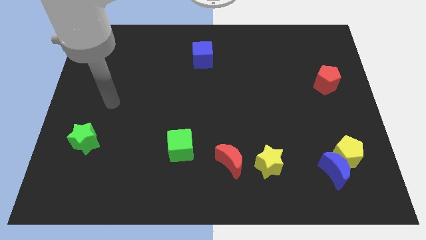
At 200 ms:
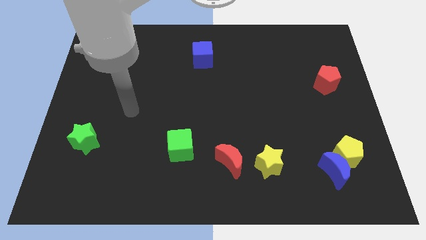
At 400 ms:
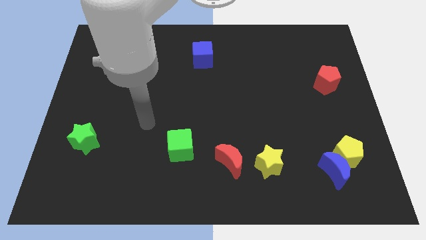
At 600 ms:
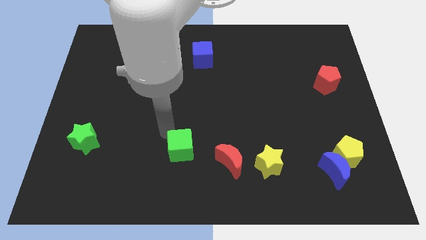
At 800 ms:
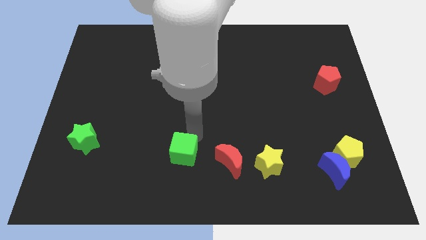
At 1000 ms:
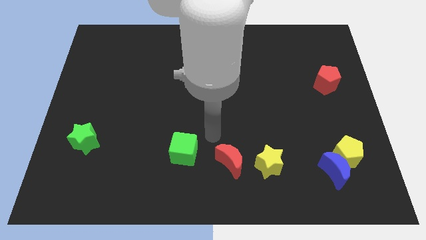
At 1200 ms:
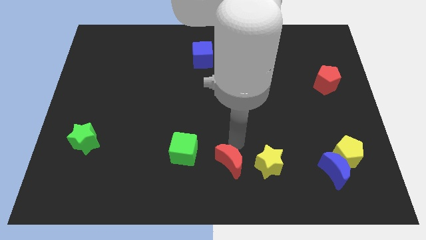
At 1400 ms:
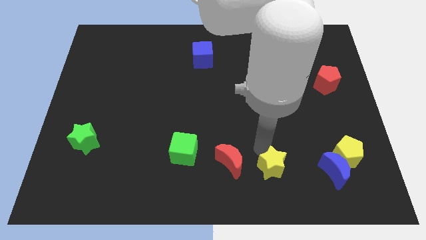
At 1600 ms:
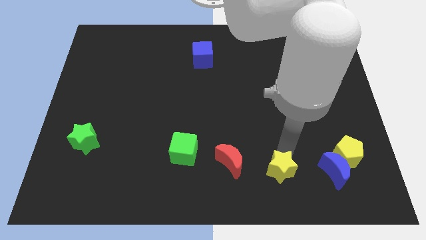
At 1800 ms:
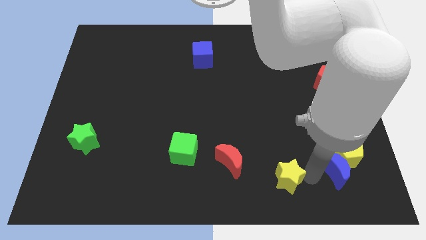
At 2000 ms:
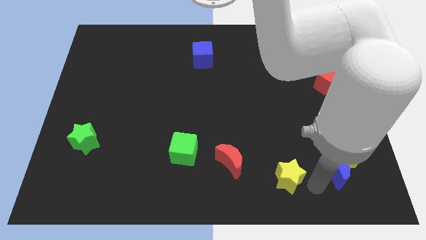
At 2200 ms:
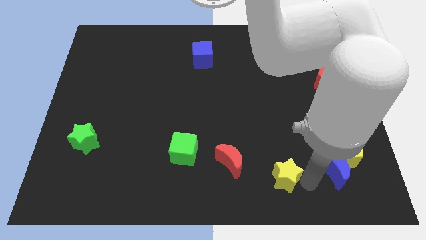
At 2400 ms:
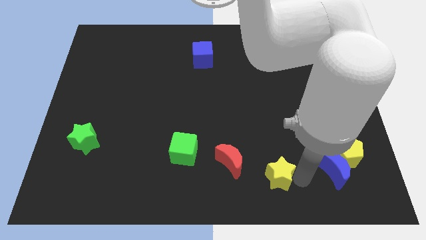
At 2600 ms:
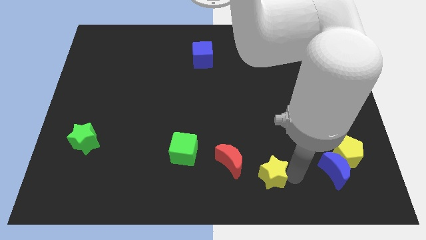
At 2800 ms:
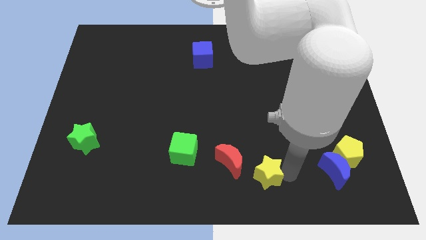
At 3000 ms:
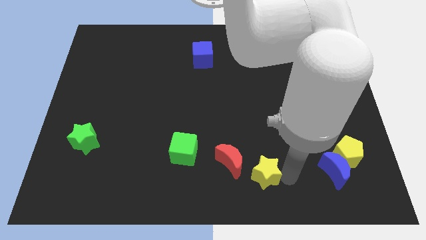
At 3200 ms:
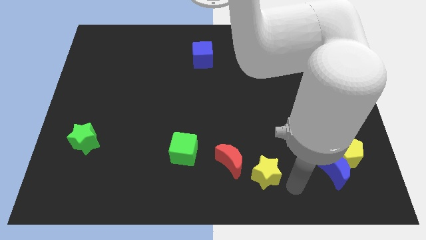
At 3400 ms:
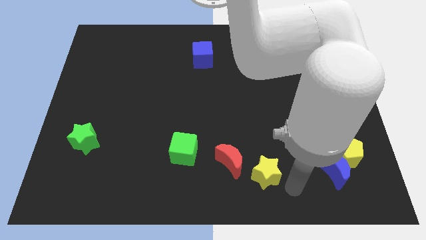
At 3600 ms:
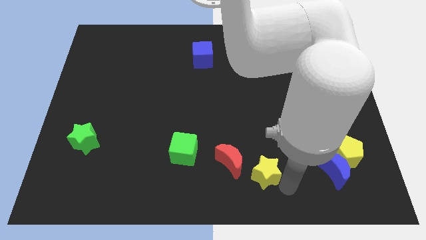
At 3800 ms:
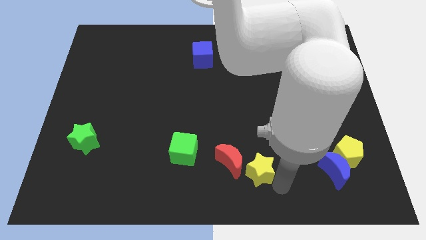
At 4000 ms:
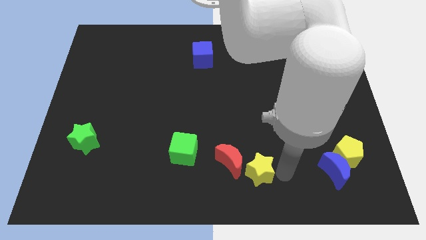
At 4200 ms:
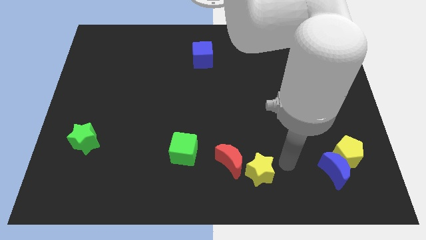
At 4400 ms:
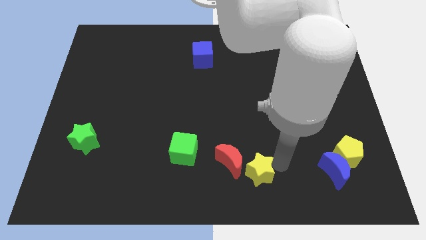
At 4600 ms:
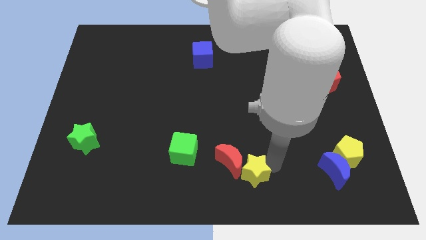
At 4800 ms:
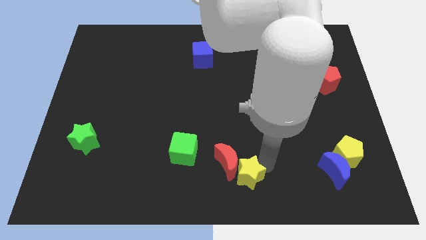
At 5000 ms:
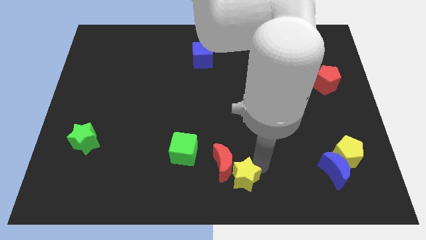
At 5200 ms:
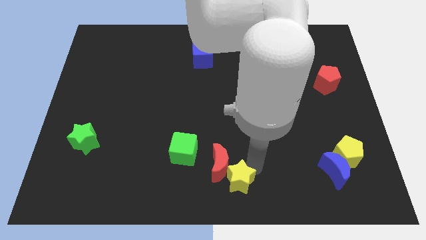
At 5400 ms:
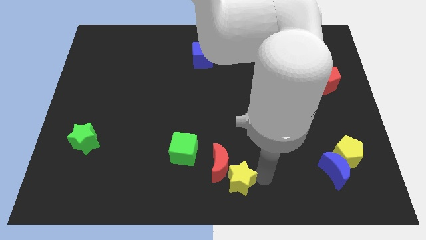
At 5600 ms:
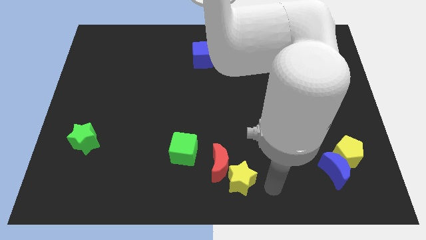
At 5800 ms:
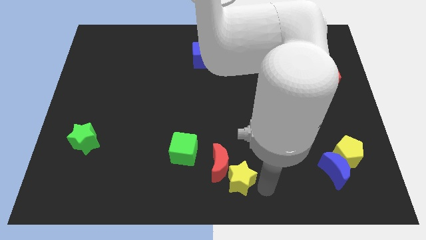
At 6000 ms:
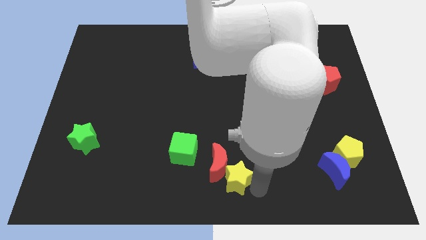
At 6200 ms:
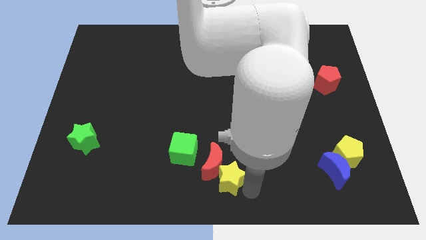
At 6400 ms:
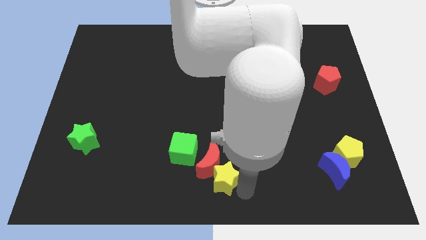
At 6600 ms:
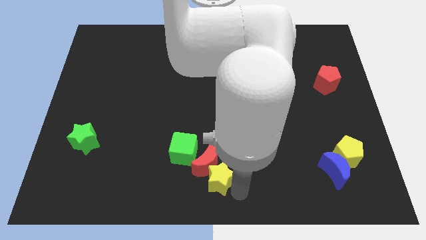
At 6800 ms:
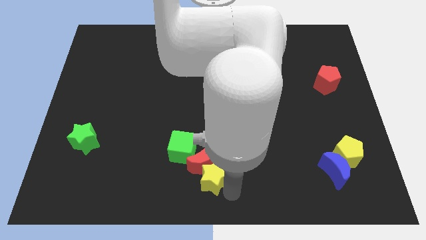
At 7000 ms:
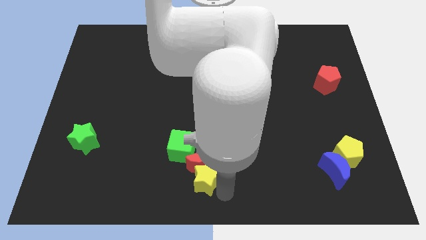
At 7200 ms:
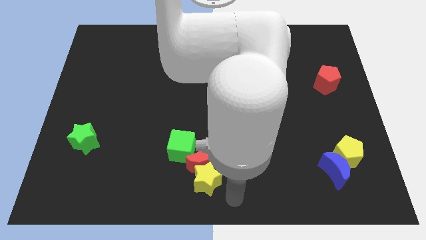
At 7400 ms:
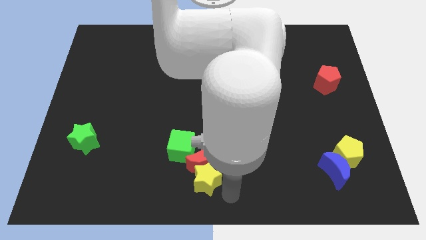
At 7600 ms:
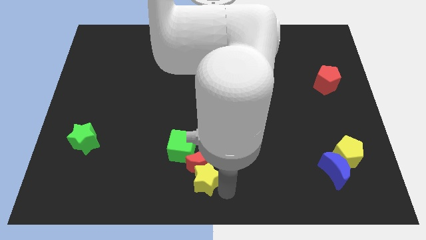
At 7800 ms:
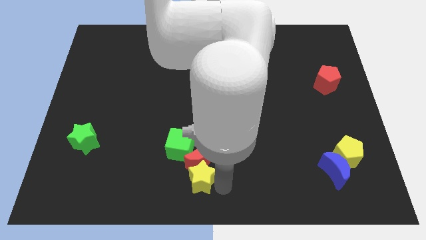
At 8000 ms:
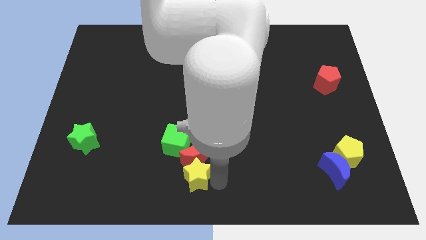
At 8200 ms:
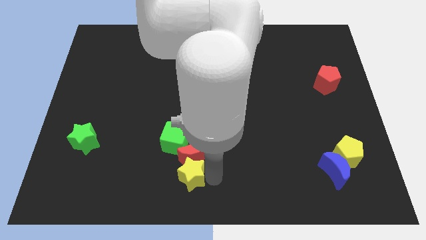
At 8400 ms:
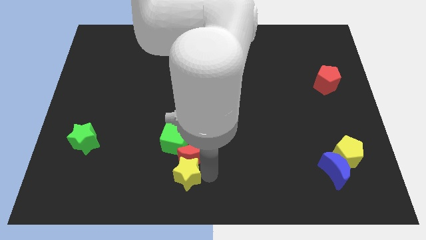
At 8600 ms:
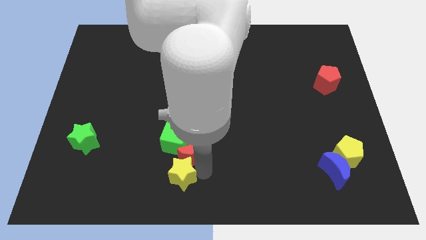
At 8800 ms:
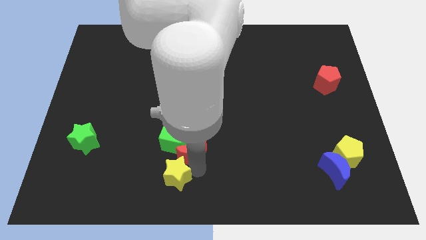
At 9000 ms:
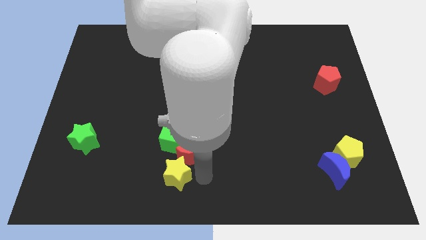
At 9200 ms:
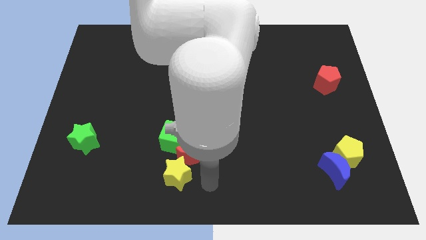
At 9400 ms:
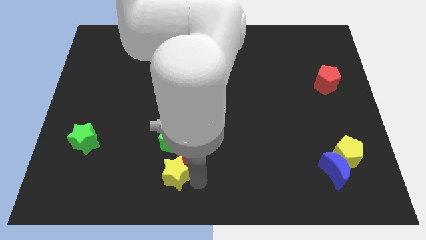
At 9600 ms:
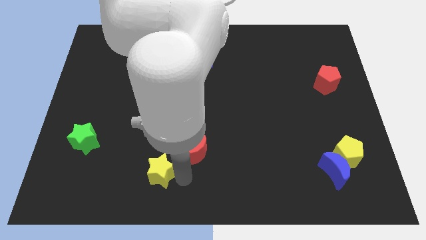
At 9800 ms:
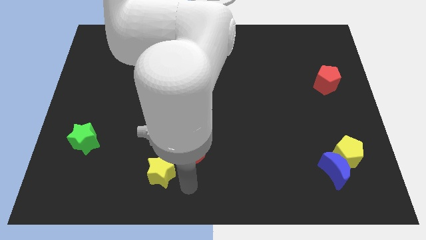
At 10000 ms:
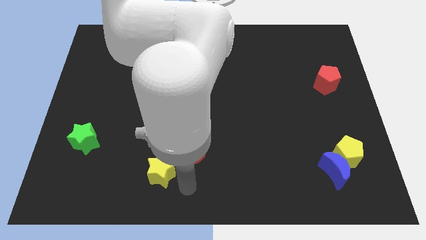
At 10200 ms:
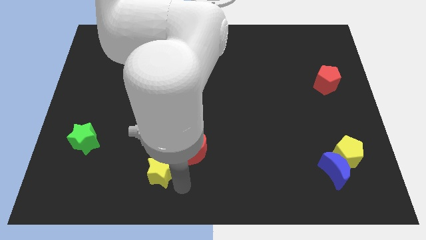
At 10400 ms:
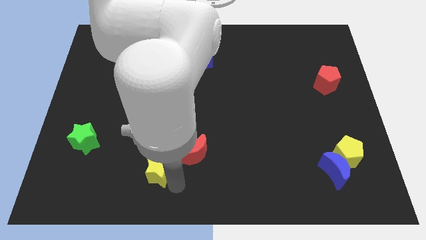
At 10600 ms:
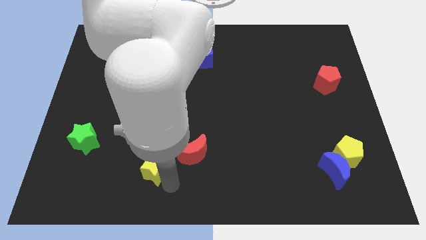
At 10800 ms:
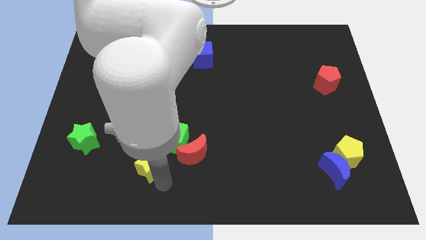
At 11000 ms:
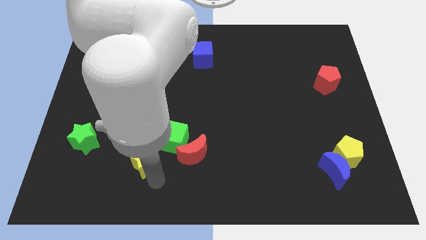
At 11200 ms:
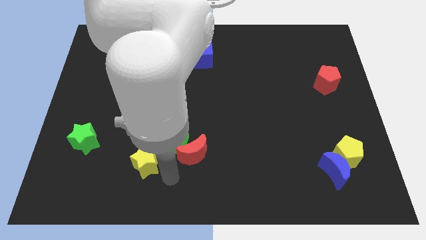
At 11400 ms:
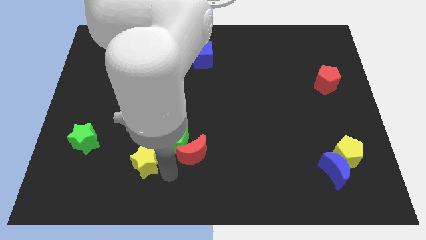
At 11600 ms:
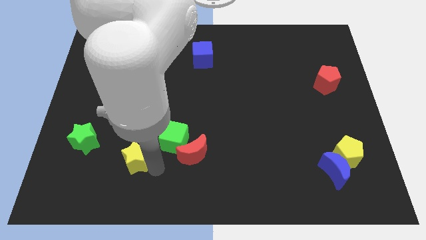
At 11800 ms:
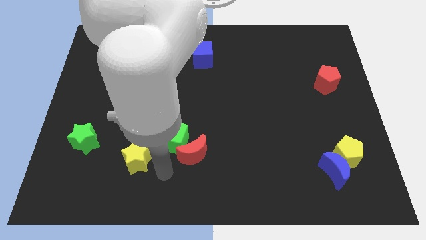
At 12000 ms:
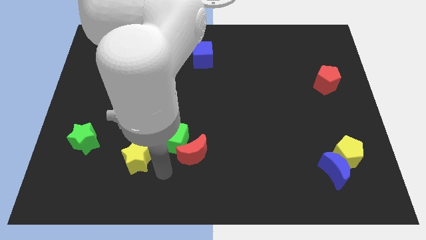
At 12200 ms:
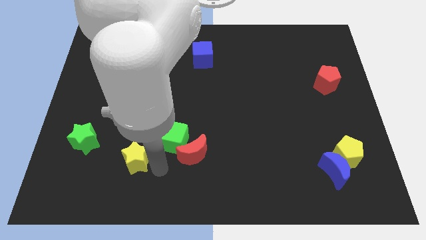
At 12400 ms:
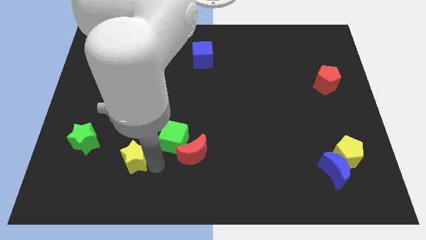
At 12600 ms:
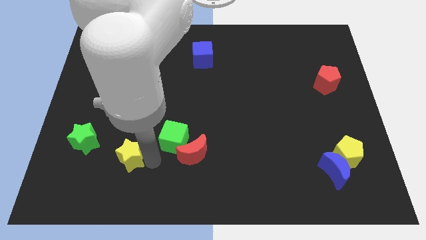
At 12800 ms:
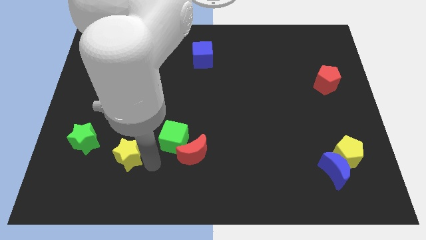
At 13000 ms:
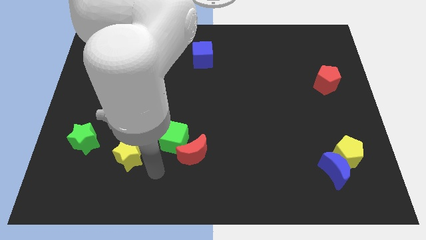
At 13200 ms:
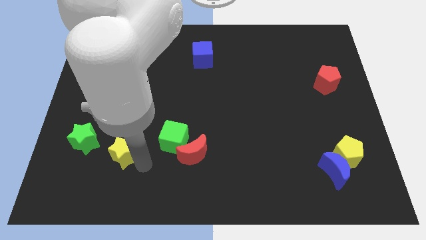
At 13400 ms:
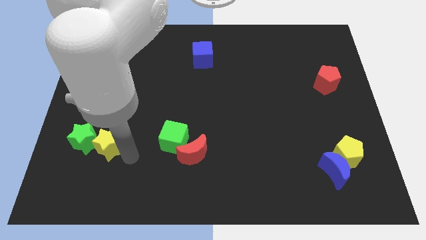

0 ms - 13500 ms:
put the yellow star close to the green star
